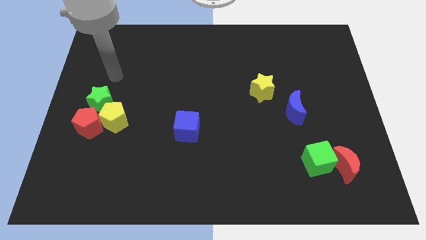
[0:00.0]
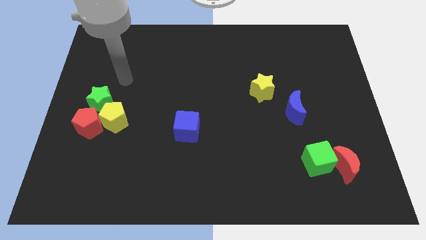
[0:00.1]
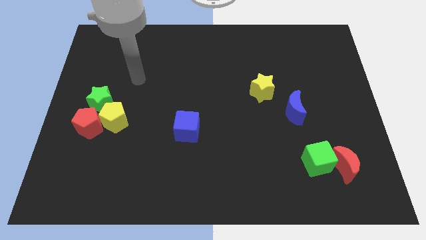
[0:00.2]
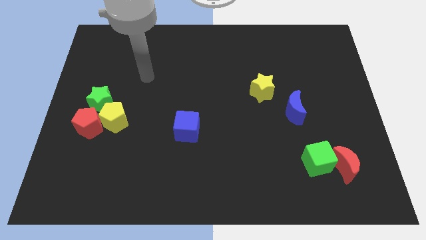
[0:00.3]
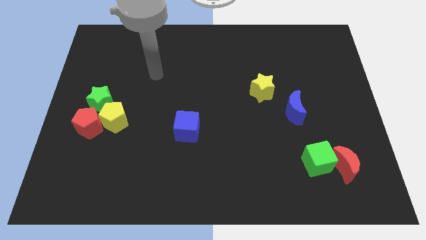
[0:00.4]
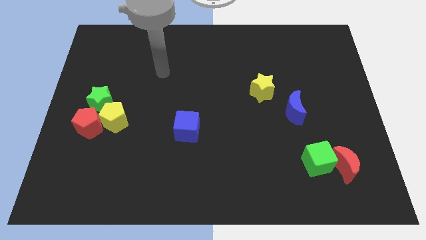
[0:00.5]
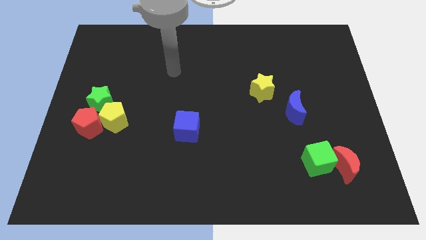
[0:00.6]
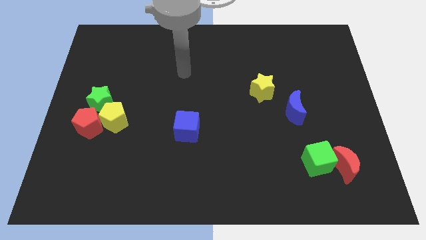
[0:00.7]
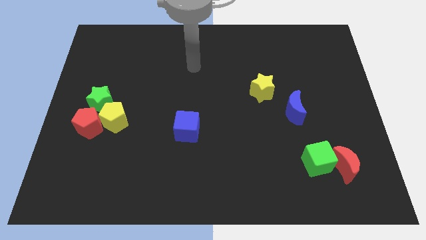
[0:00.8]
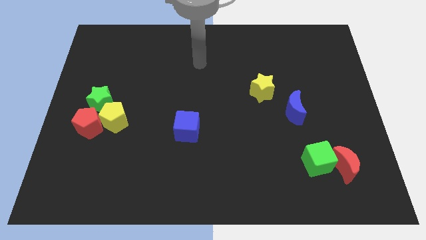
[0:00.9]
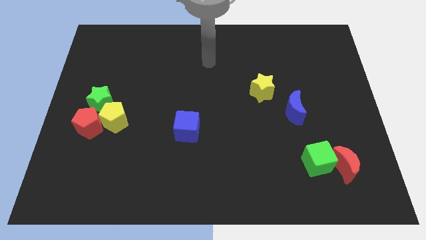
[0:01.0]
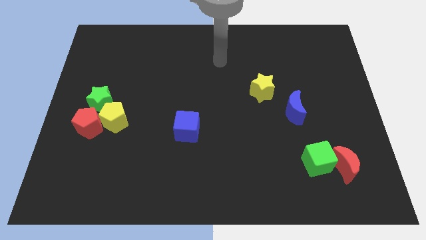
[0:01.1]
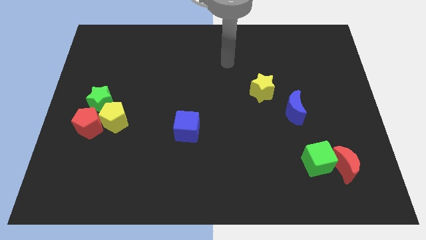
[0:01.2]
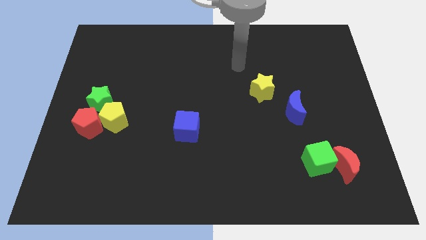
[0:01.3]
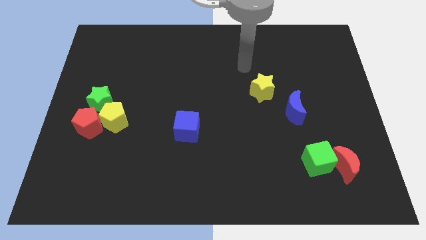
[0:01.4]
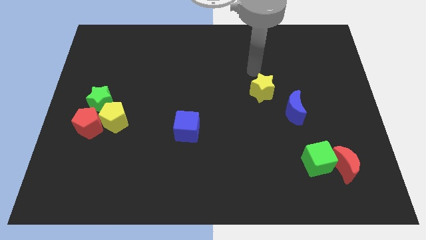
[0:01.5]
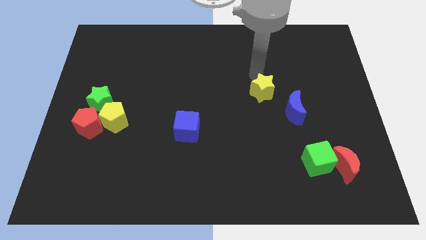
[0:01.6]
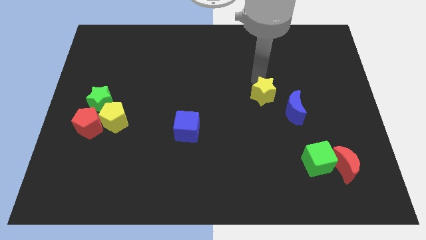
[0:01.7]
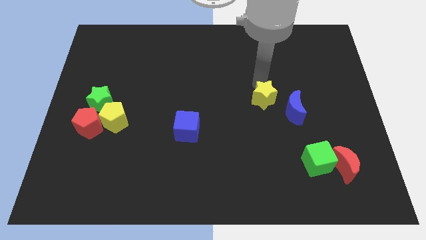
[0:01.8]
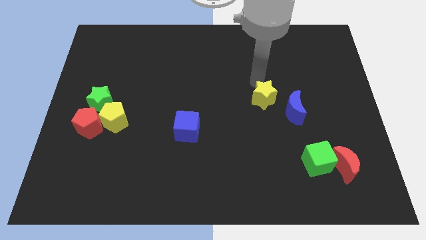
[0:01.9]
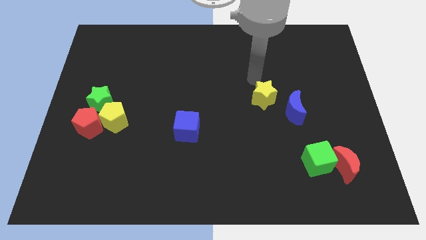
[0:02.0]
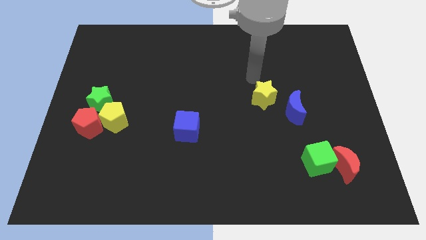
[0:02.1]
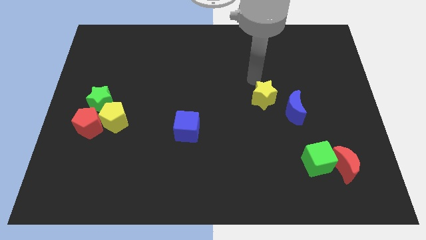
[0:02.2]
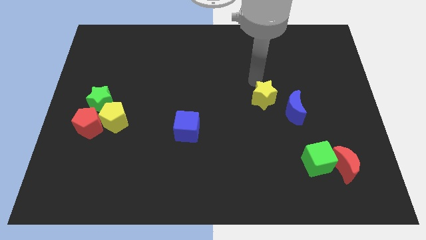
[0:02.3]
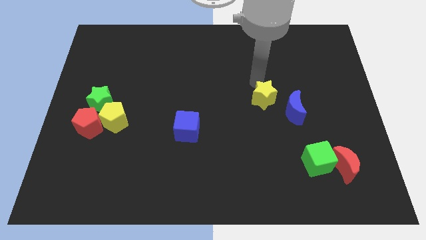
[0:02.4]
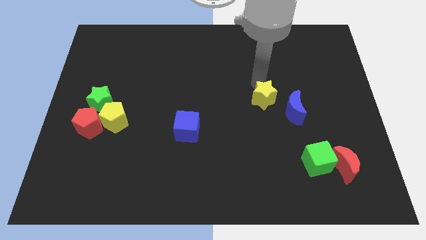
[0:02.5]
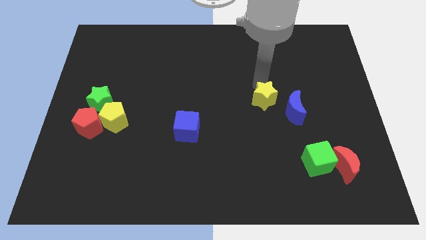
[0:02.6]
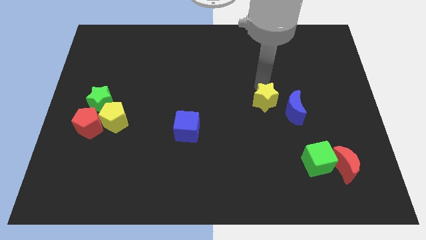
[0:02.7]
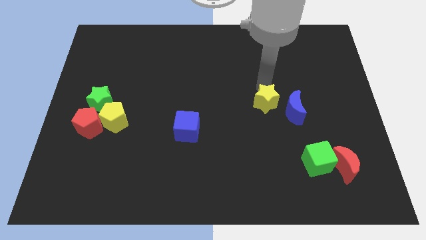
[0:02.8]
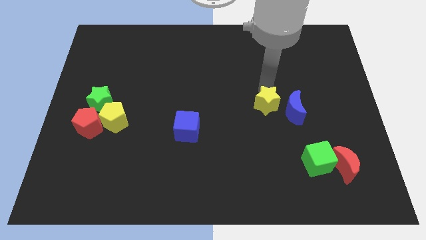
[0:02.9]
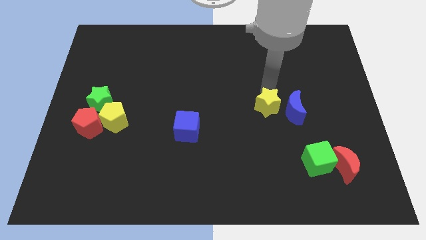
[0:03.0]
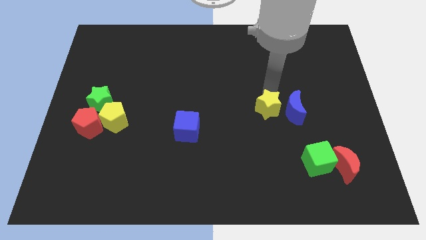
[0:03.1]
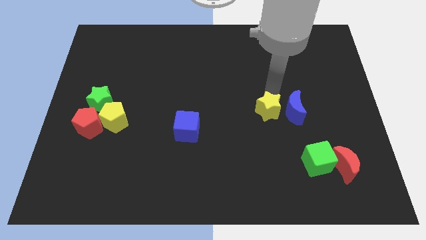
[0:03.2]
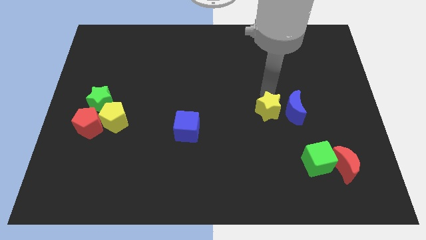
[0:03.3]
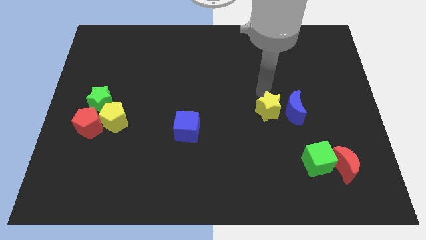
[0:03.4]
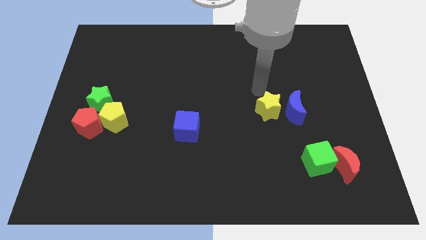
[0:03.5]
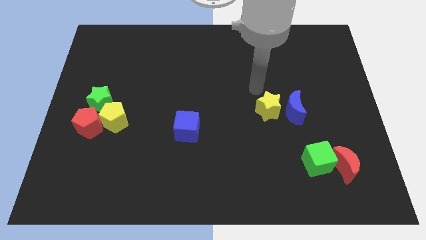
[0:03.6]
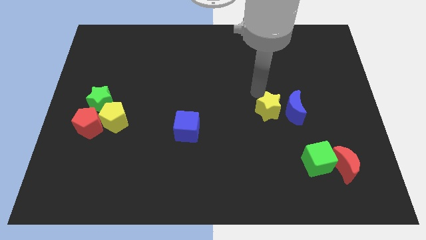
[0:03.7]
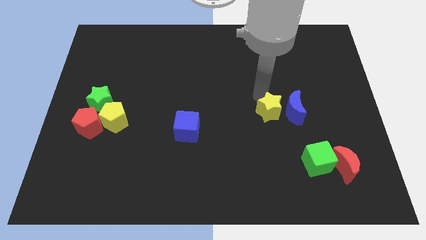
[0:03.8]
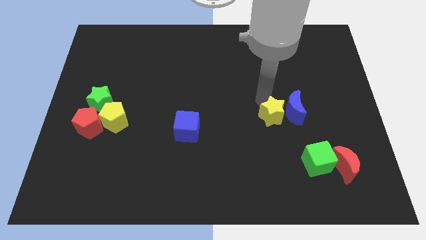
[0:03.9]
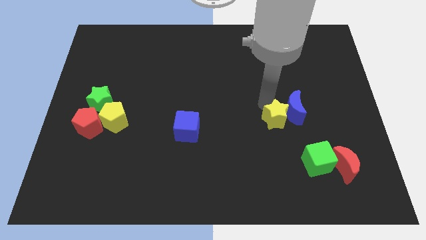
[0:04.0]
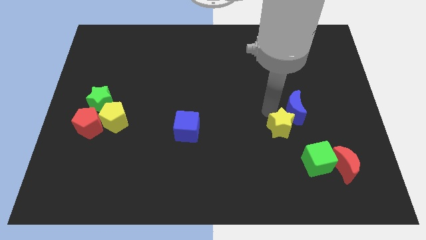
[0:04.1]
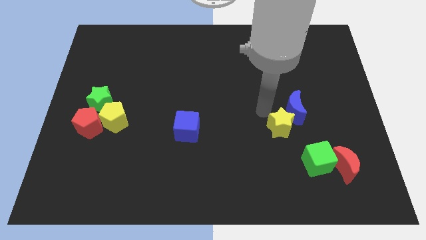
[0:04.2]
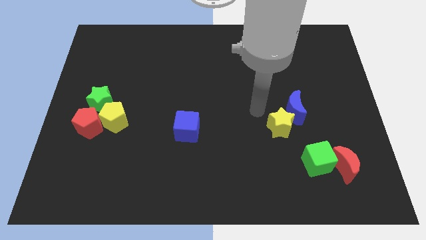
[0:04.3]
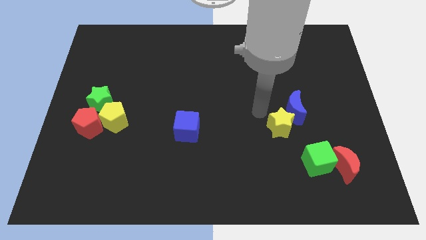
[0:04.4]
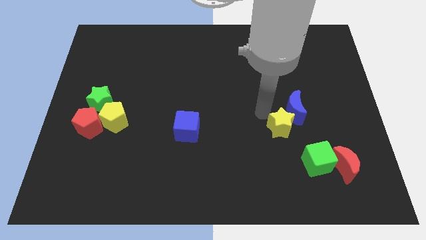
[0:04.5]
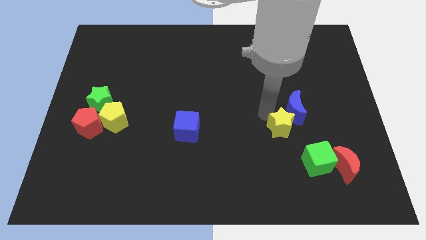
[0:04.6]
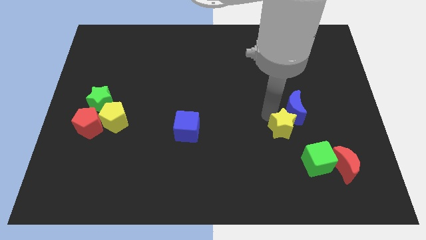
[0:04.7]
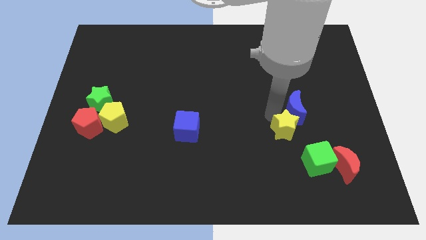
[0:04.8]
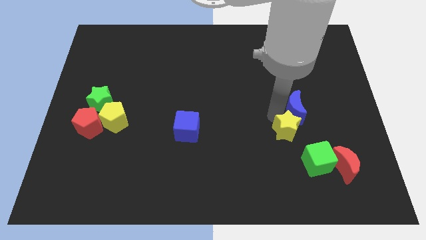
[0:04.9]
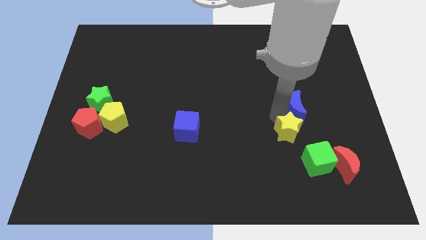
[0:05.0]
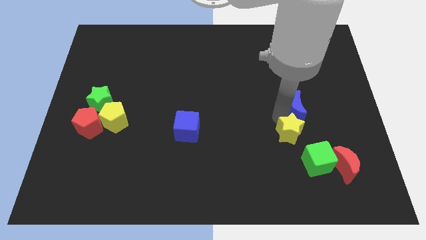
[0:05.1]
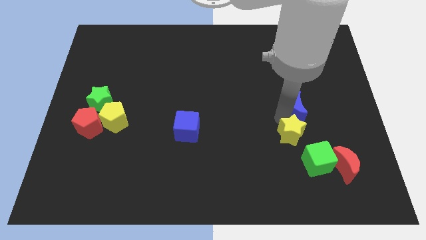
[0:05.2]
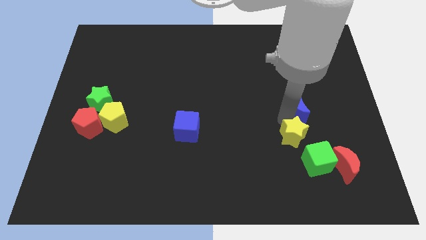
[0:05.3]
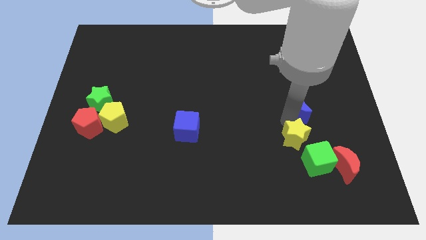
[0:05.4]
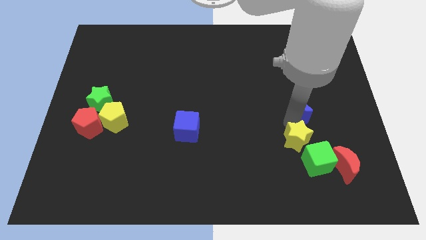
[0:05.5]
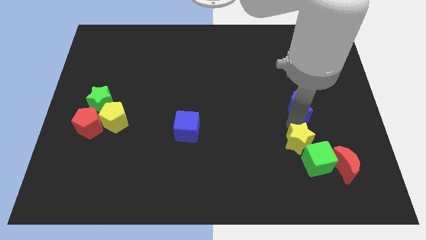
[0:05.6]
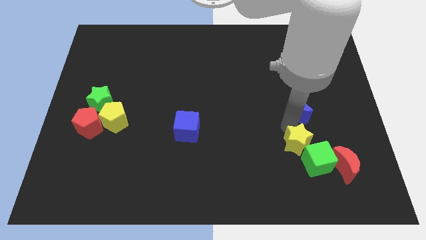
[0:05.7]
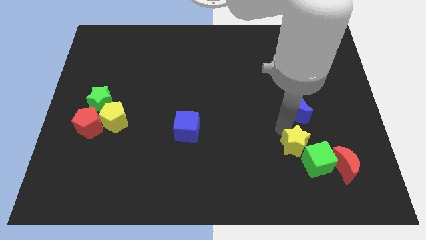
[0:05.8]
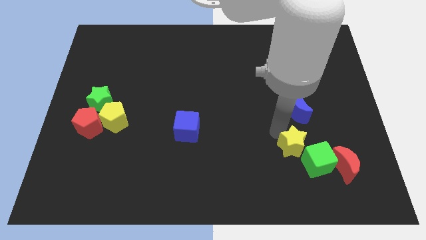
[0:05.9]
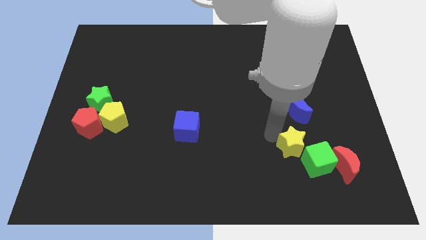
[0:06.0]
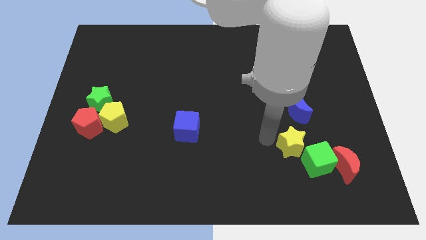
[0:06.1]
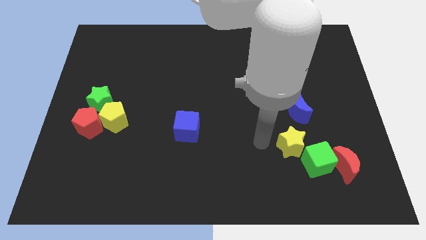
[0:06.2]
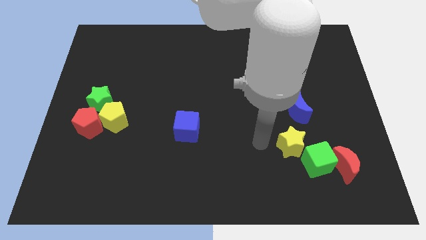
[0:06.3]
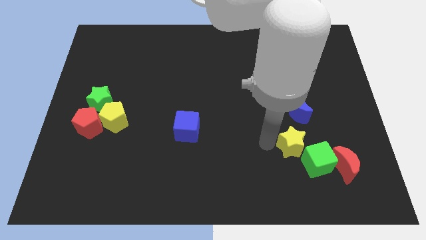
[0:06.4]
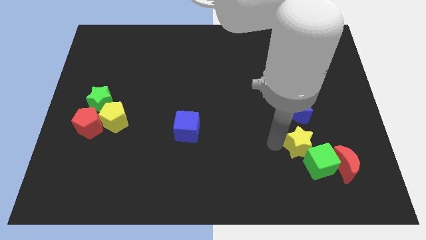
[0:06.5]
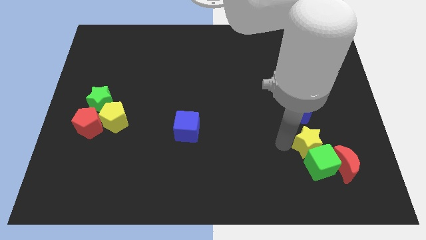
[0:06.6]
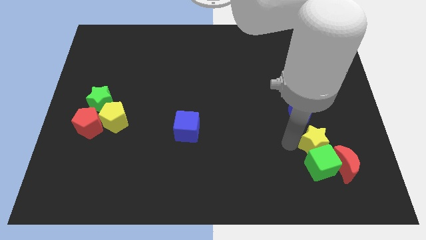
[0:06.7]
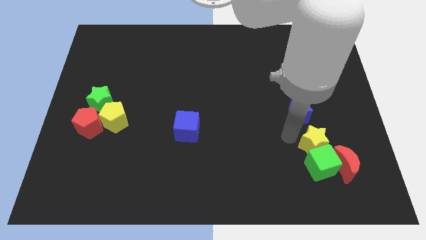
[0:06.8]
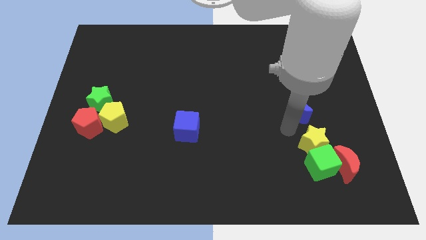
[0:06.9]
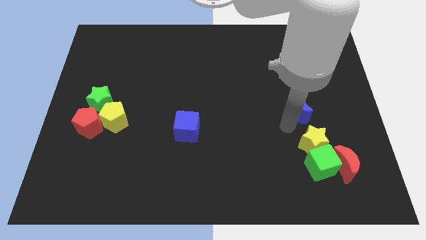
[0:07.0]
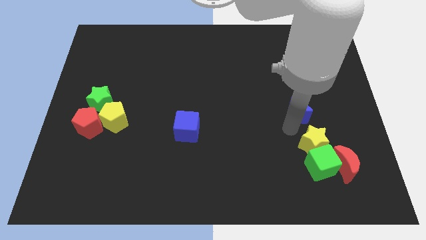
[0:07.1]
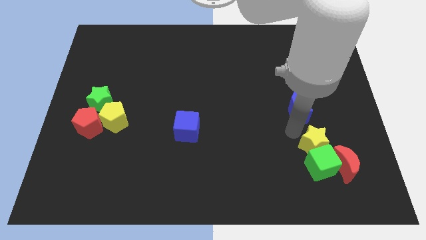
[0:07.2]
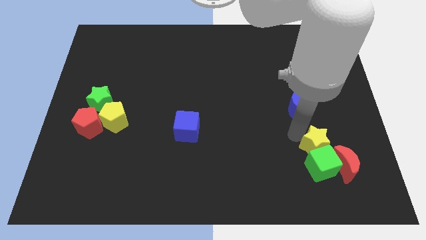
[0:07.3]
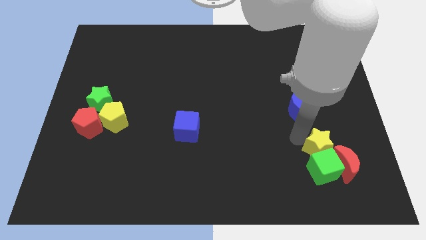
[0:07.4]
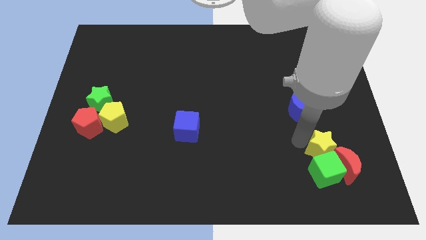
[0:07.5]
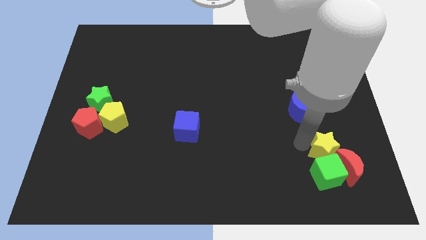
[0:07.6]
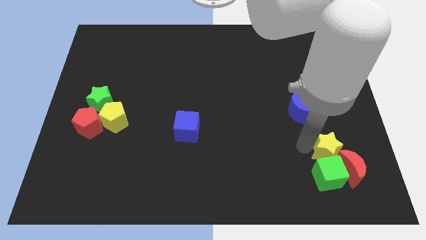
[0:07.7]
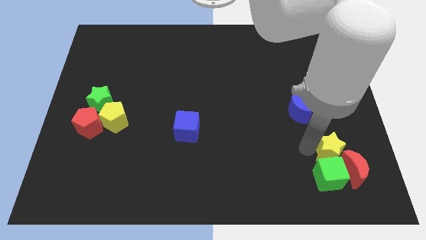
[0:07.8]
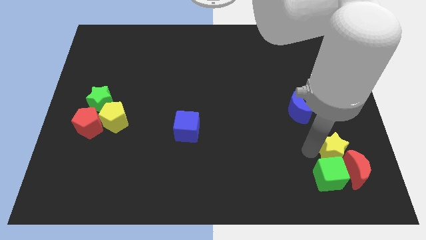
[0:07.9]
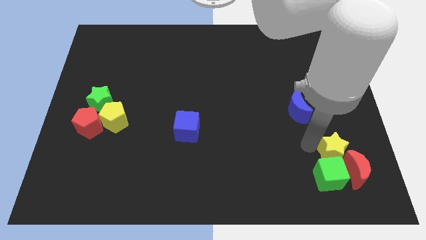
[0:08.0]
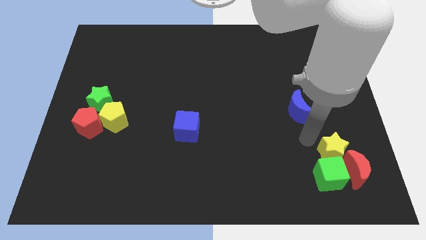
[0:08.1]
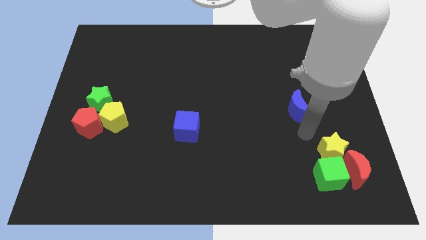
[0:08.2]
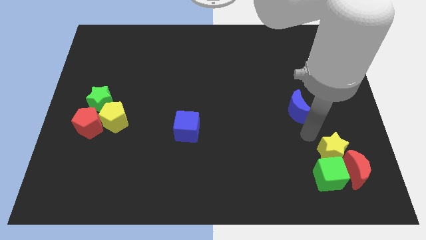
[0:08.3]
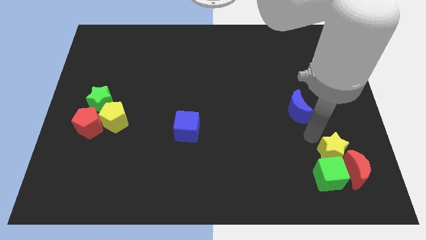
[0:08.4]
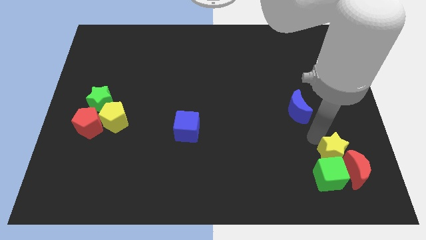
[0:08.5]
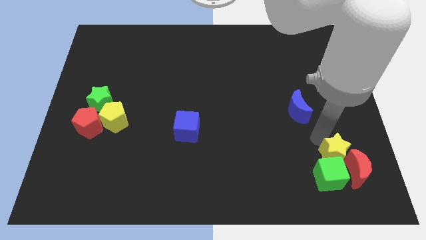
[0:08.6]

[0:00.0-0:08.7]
slide the yellow star close to the red moon
